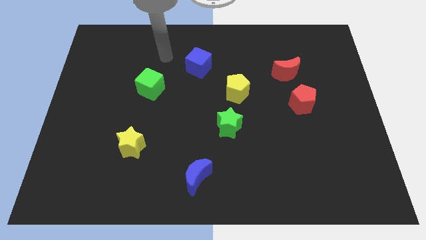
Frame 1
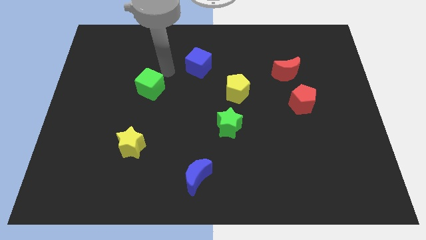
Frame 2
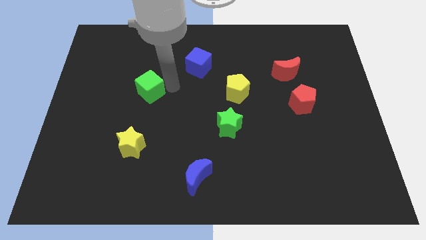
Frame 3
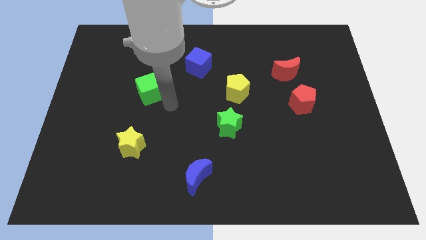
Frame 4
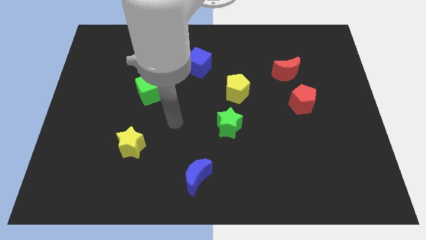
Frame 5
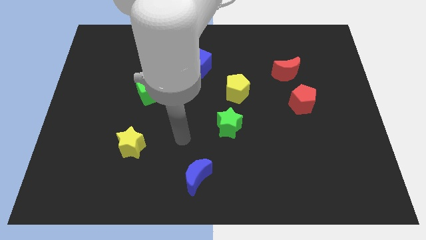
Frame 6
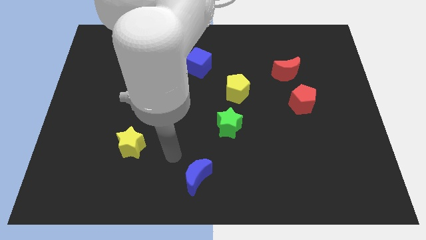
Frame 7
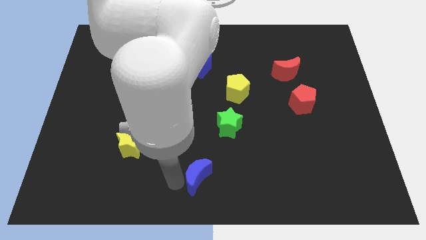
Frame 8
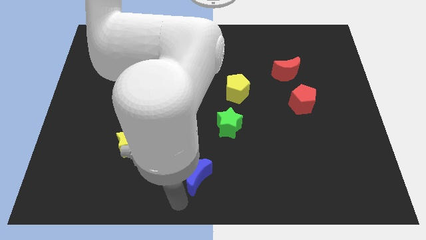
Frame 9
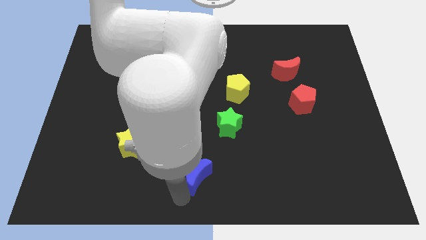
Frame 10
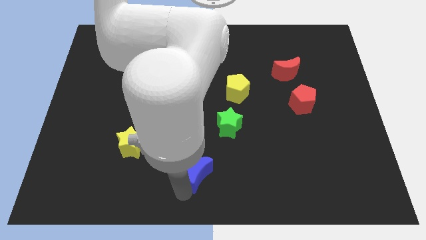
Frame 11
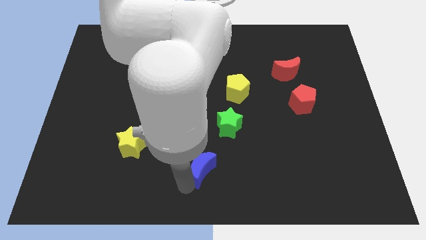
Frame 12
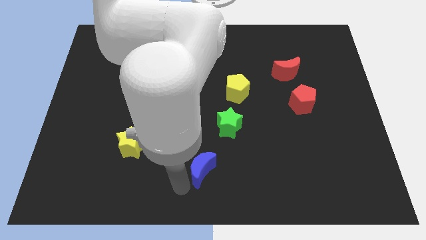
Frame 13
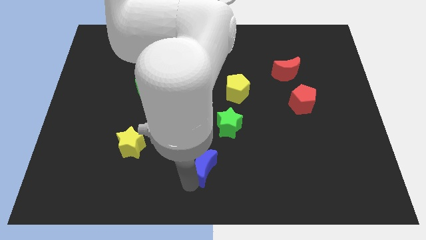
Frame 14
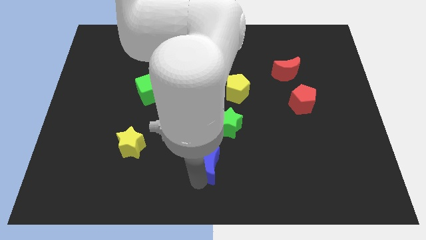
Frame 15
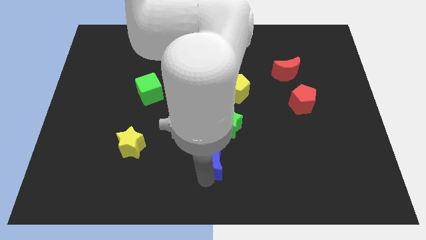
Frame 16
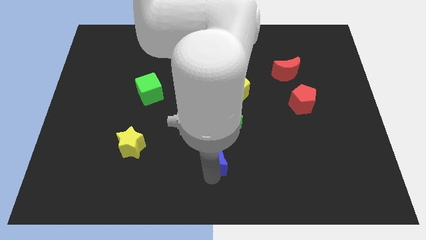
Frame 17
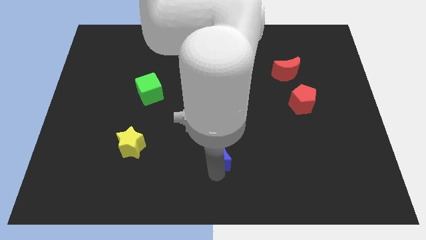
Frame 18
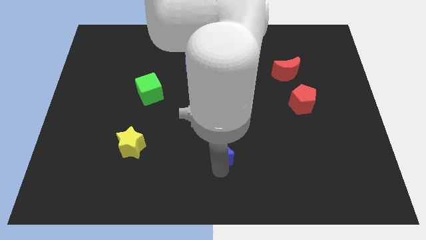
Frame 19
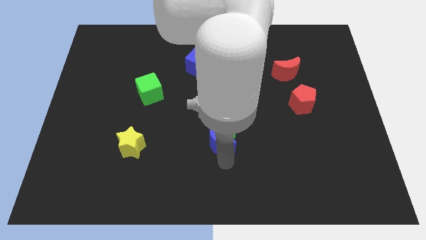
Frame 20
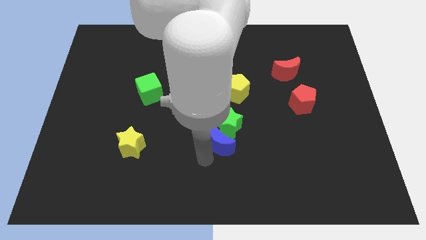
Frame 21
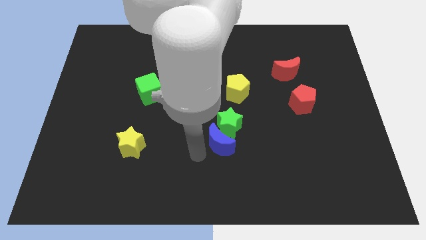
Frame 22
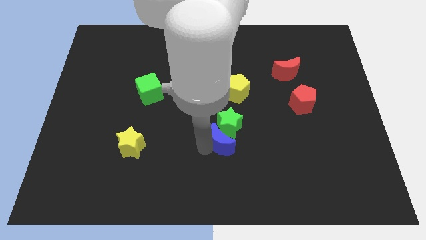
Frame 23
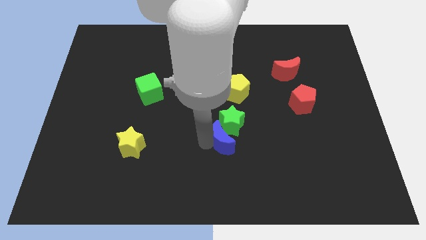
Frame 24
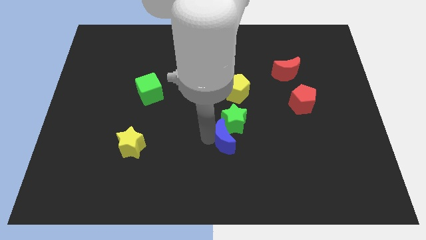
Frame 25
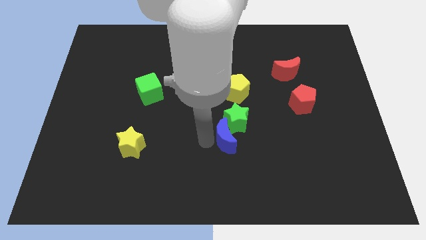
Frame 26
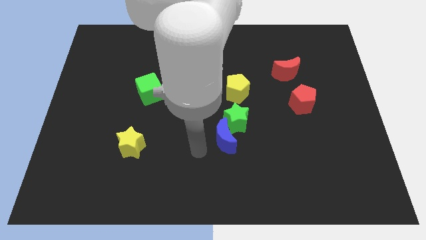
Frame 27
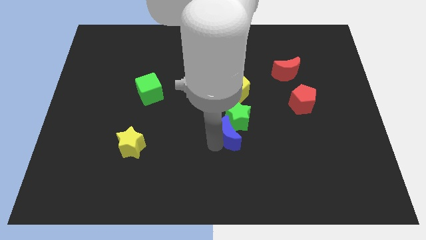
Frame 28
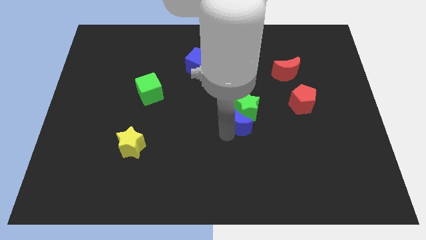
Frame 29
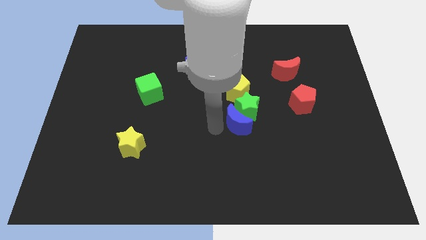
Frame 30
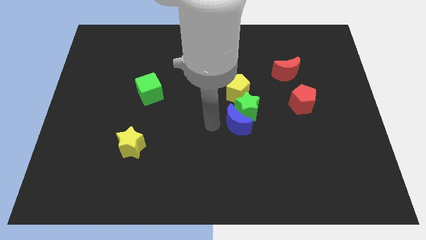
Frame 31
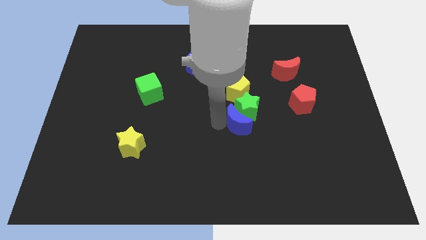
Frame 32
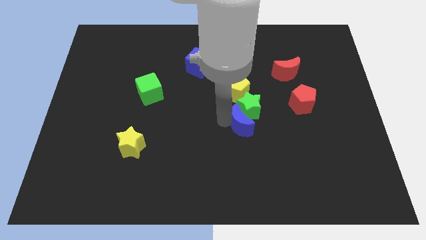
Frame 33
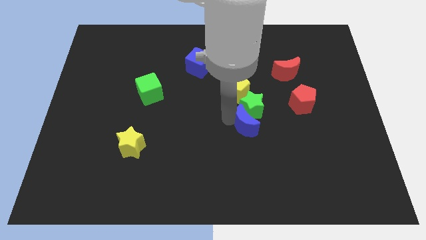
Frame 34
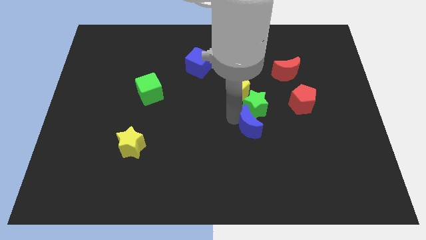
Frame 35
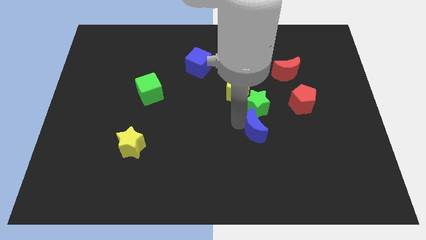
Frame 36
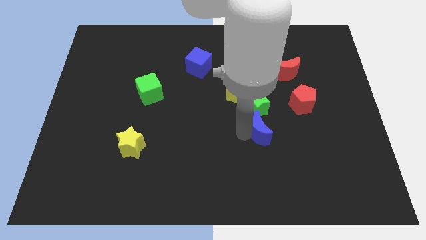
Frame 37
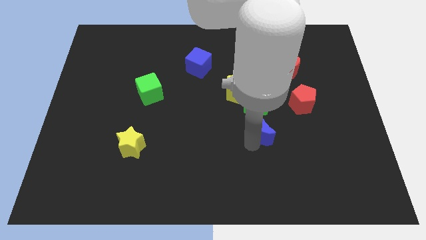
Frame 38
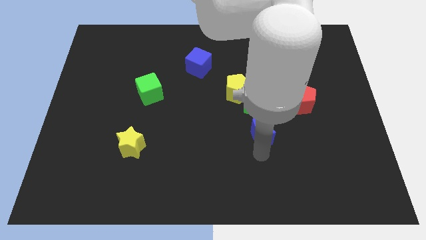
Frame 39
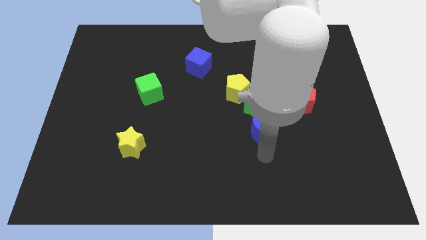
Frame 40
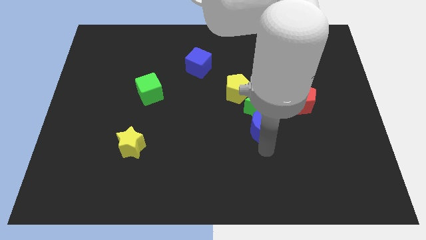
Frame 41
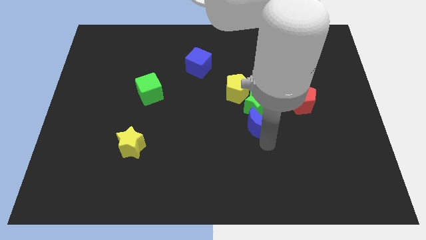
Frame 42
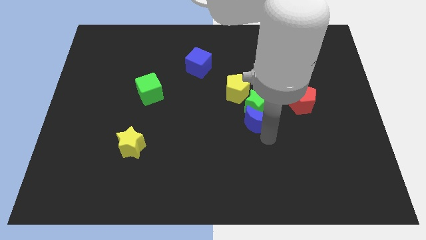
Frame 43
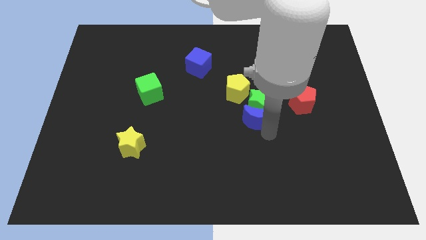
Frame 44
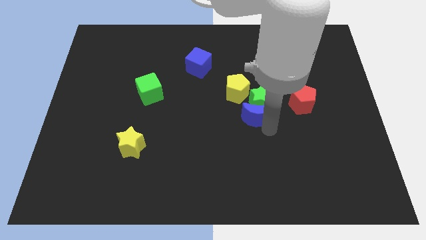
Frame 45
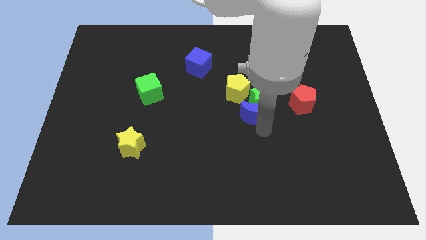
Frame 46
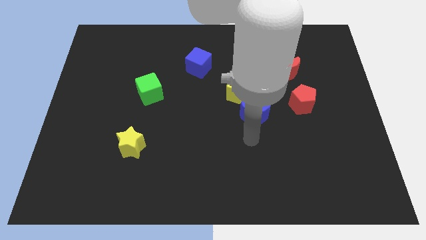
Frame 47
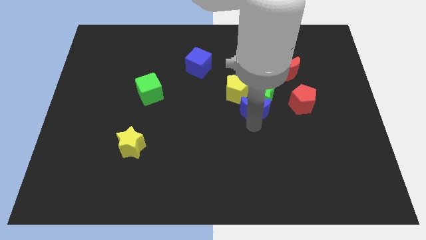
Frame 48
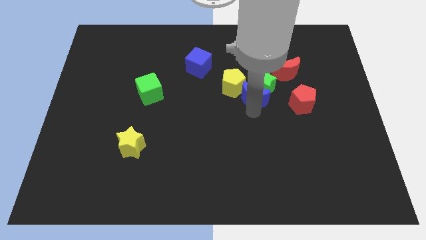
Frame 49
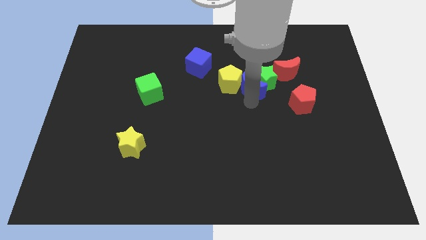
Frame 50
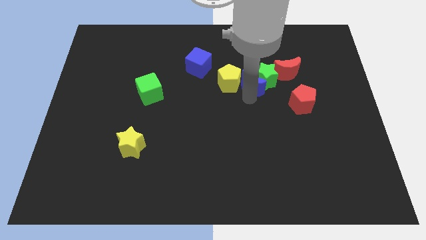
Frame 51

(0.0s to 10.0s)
put the blue moon diagonally up and to the right of the yellow pentagon

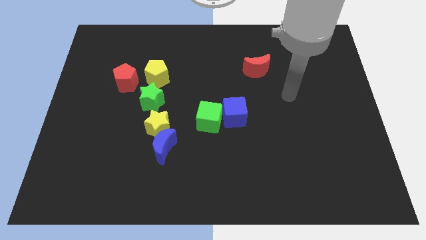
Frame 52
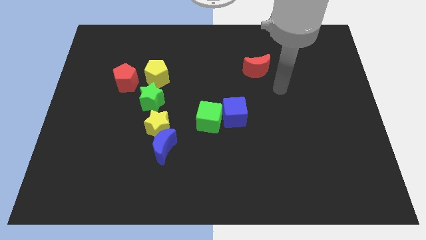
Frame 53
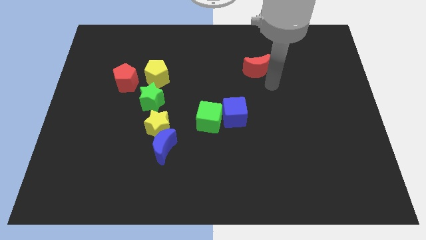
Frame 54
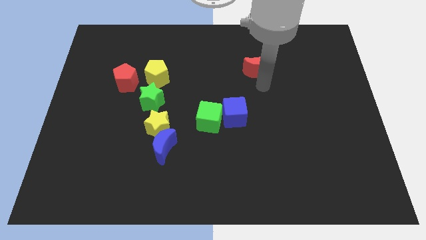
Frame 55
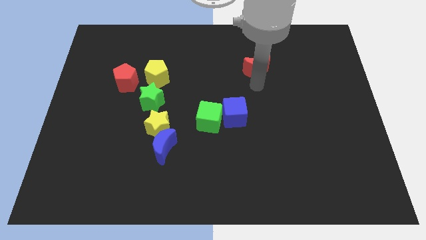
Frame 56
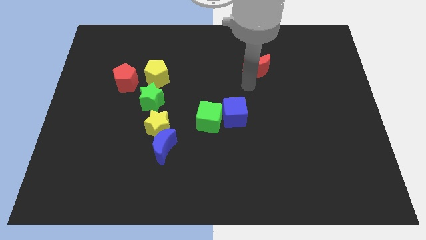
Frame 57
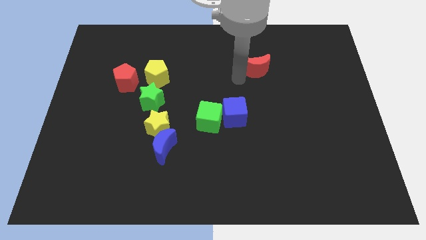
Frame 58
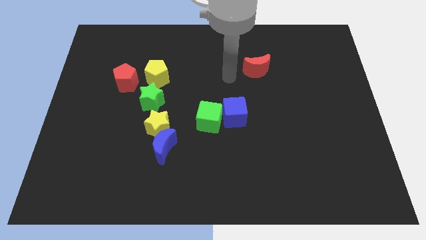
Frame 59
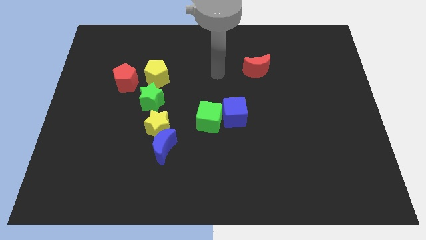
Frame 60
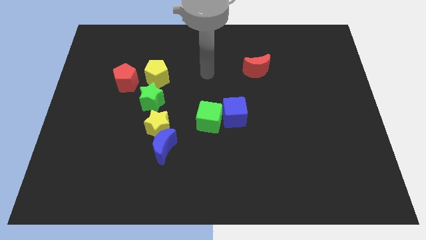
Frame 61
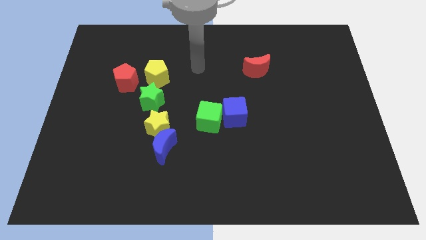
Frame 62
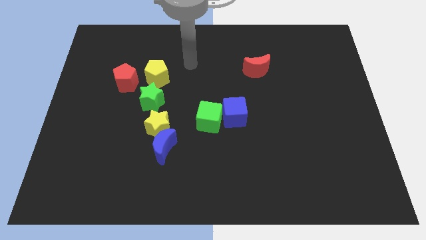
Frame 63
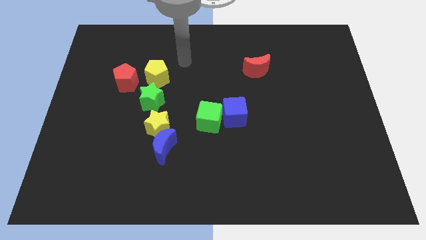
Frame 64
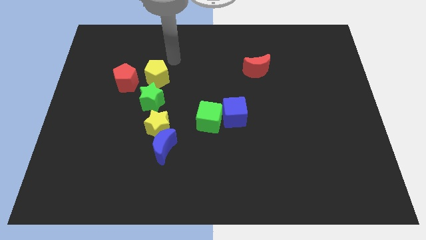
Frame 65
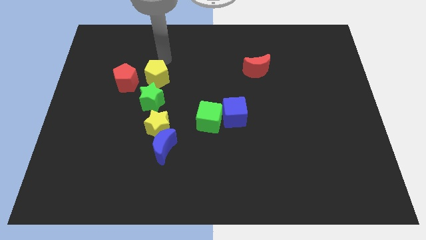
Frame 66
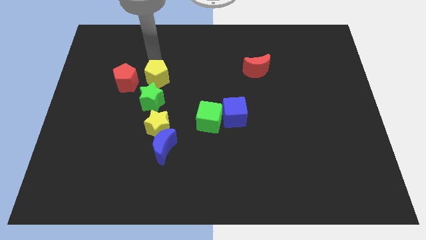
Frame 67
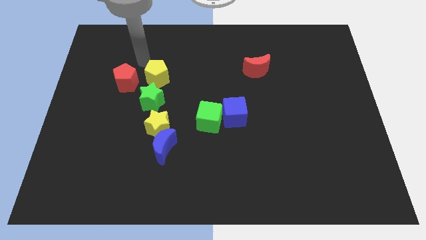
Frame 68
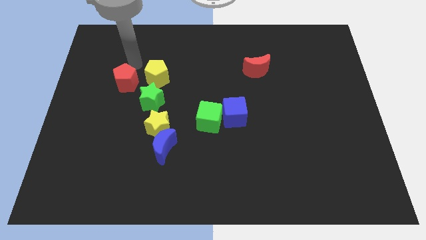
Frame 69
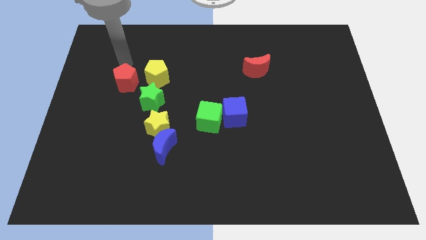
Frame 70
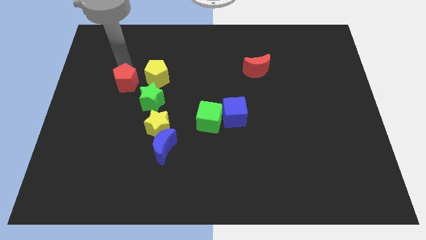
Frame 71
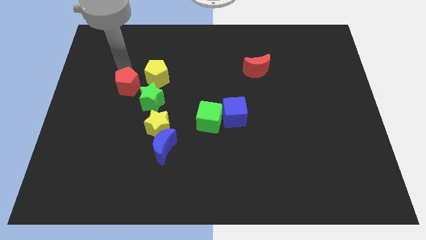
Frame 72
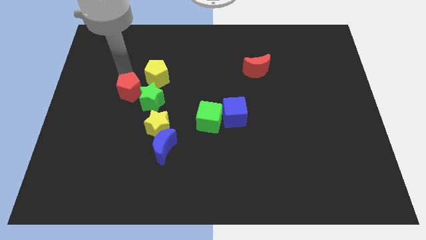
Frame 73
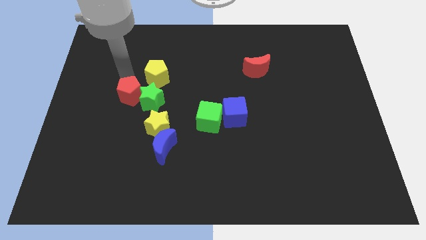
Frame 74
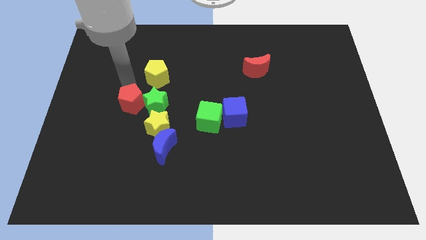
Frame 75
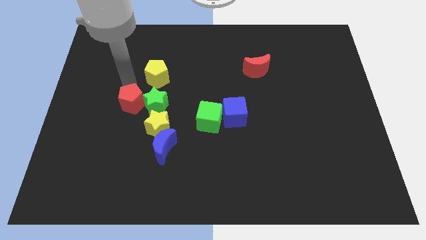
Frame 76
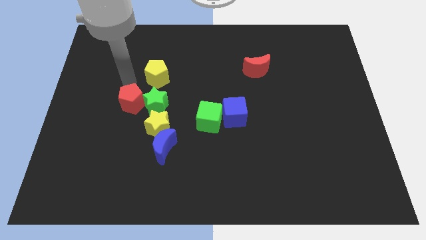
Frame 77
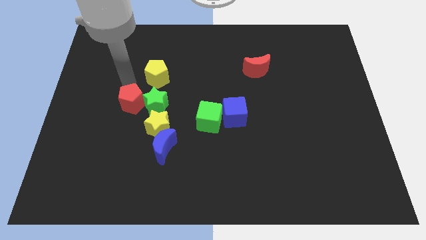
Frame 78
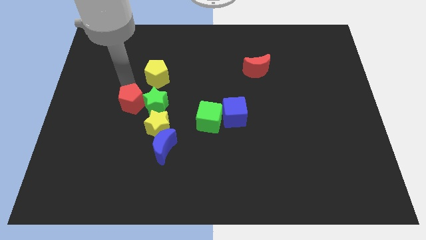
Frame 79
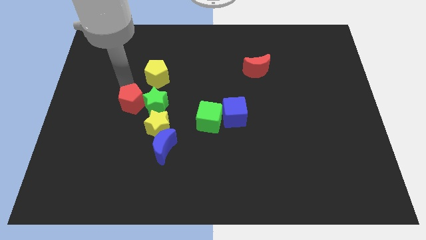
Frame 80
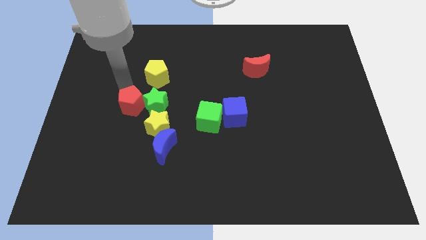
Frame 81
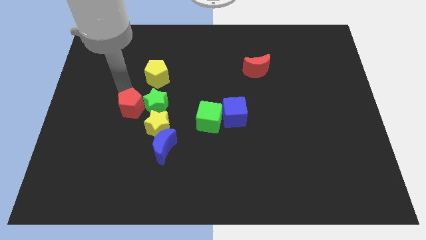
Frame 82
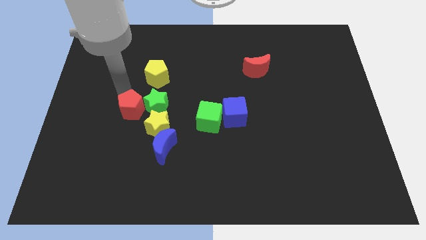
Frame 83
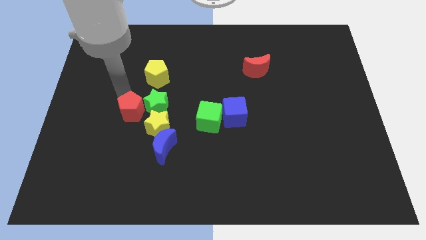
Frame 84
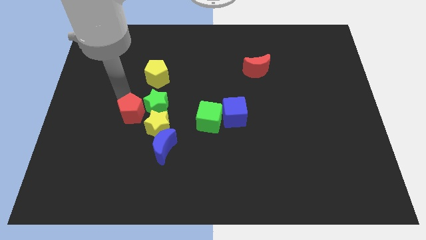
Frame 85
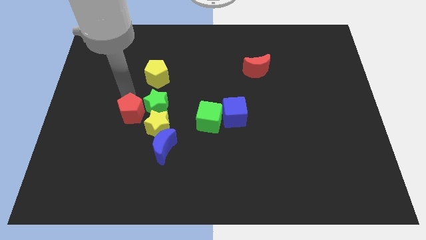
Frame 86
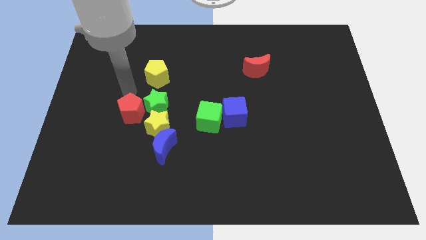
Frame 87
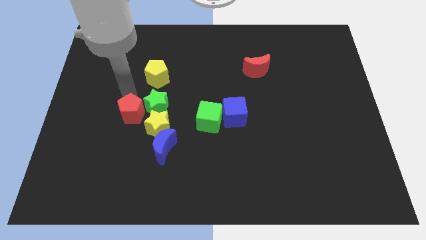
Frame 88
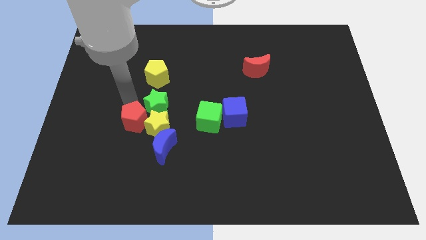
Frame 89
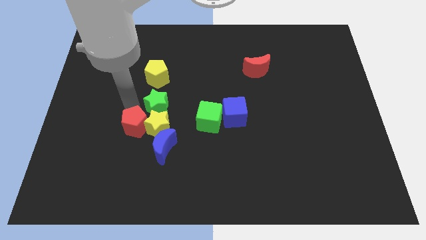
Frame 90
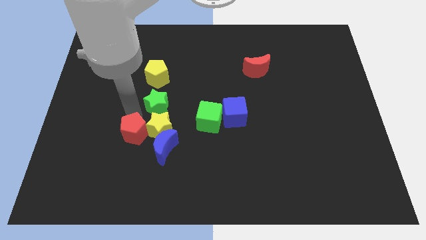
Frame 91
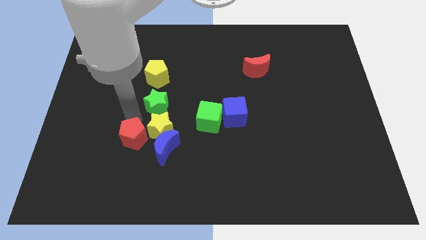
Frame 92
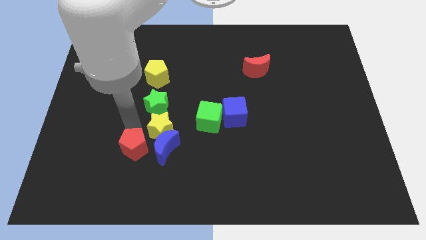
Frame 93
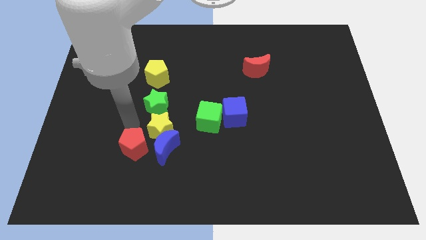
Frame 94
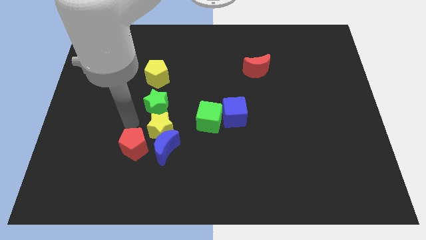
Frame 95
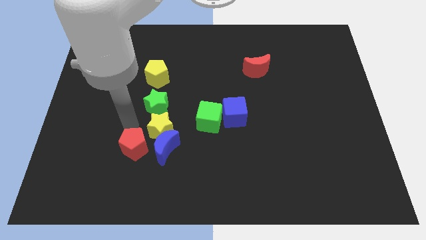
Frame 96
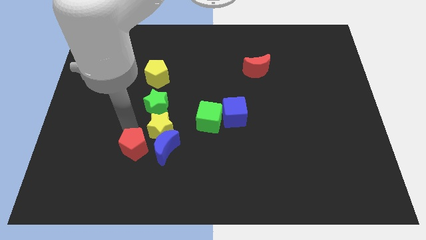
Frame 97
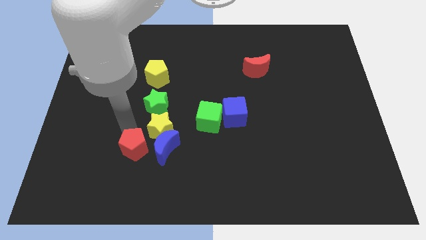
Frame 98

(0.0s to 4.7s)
slide the red pentagon to the bottom left side of the blue moon
